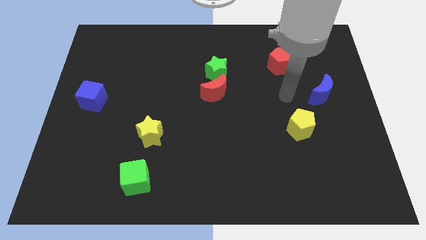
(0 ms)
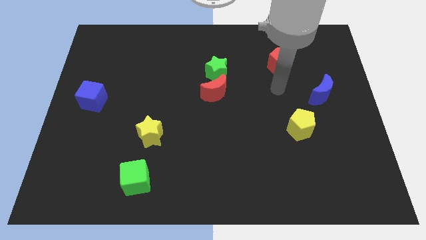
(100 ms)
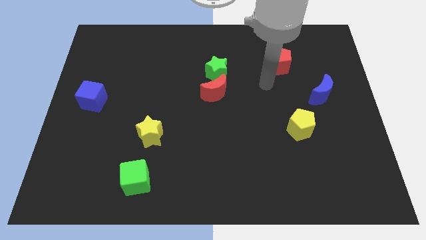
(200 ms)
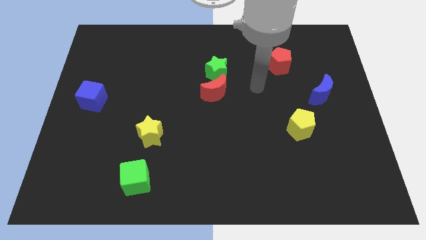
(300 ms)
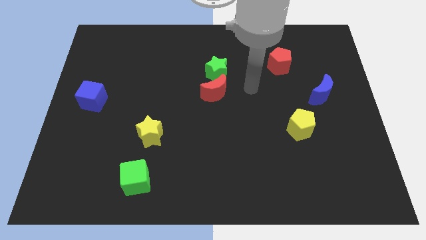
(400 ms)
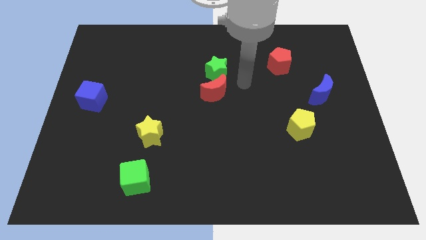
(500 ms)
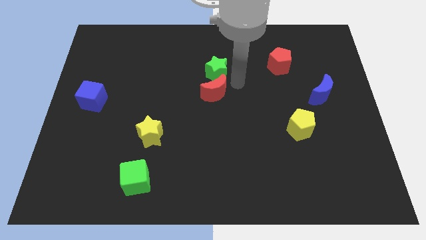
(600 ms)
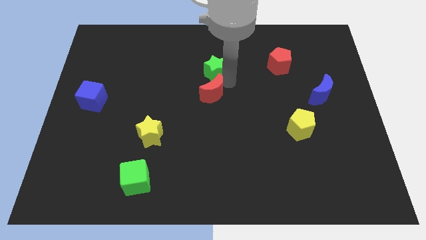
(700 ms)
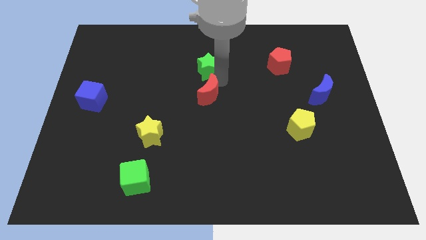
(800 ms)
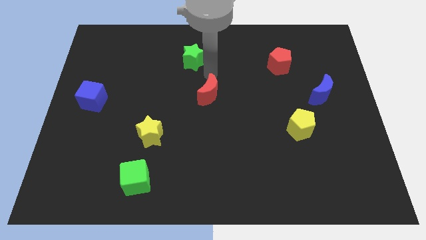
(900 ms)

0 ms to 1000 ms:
pull the red moon apart from the green star

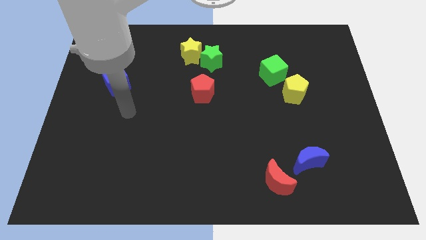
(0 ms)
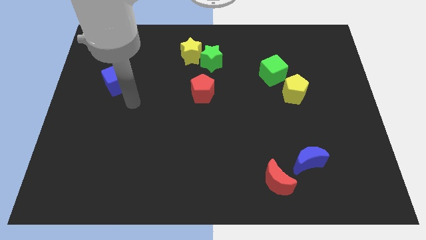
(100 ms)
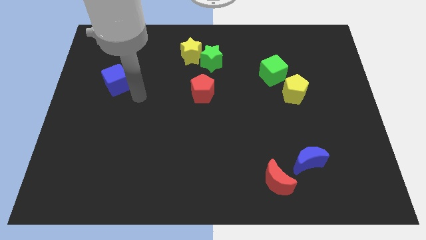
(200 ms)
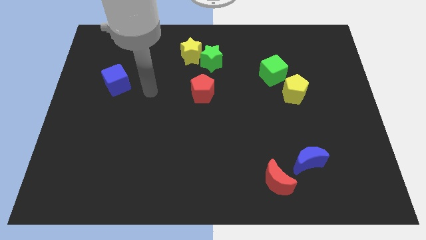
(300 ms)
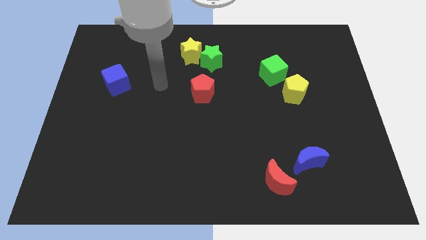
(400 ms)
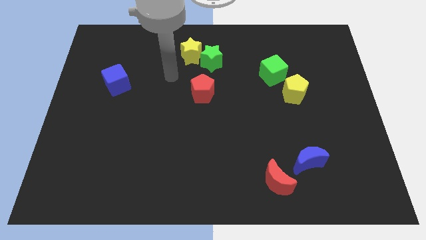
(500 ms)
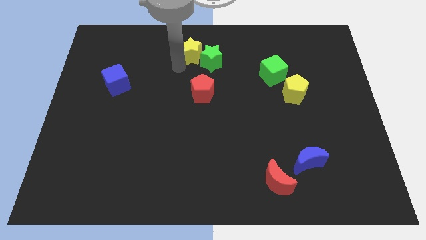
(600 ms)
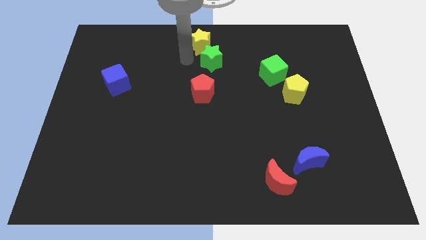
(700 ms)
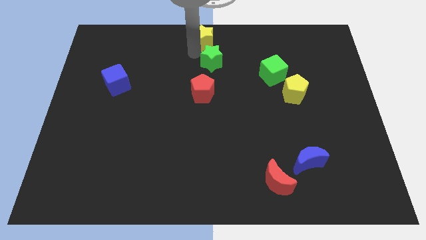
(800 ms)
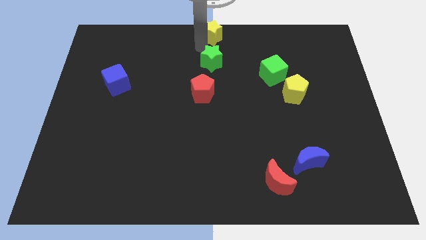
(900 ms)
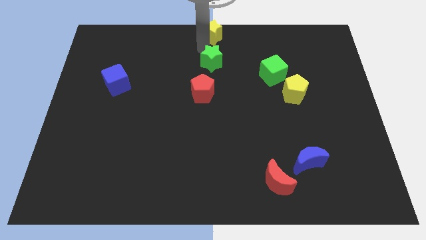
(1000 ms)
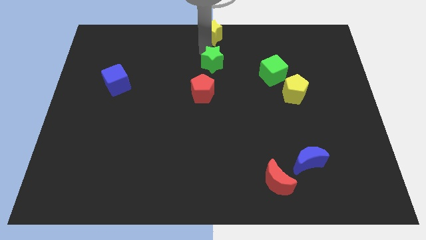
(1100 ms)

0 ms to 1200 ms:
separate the green star from the yellow star

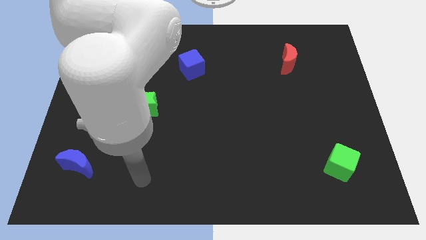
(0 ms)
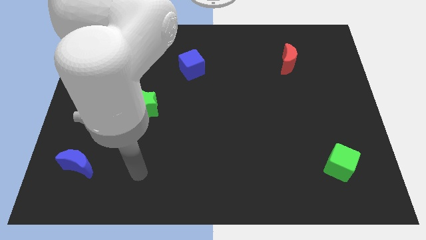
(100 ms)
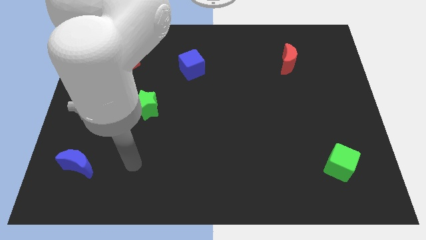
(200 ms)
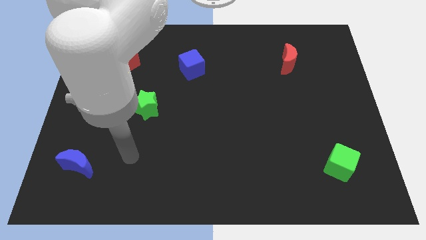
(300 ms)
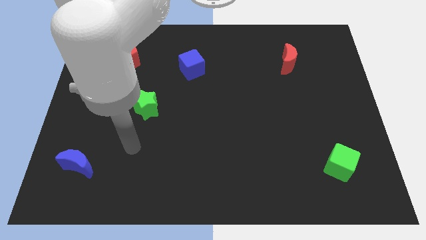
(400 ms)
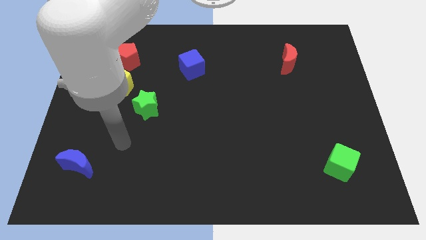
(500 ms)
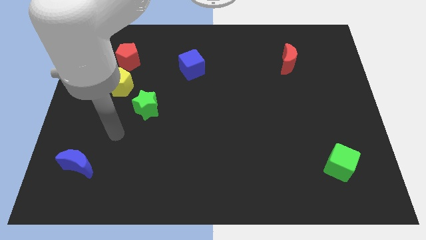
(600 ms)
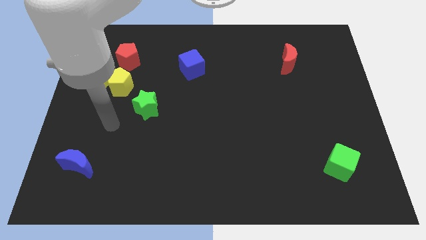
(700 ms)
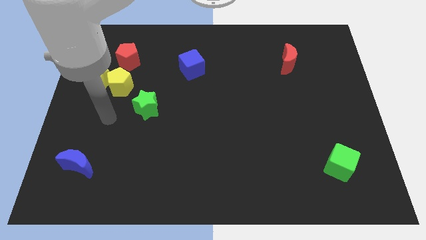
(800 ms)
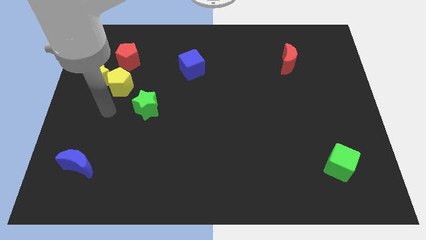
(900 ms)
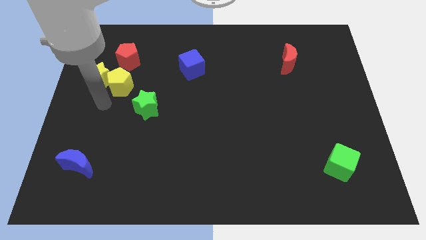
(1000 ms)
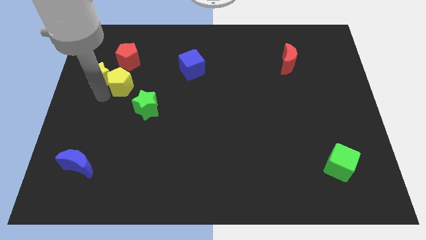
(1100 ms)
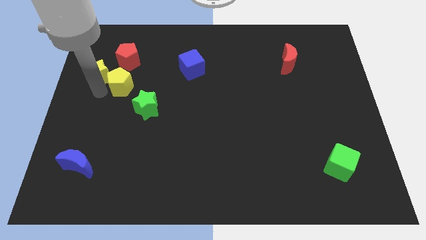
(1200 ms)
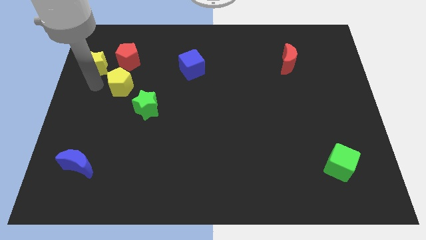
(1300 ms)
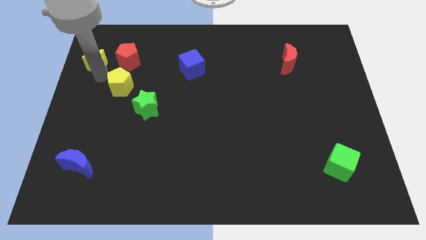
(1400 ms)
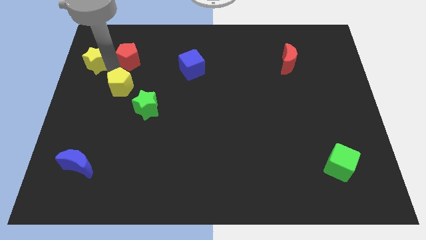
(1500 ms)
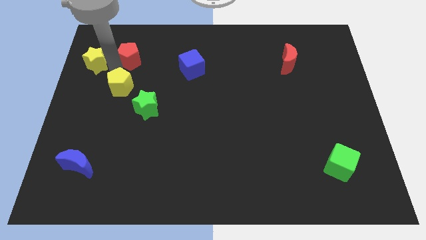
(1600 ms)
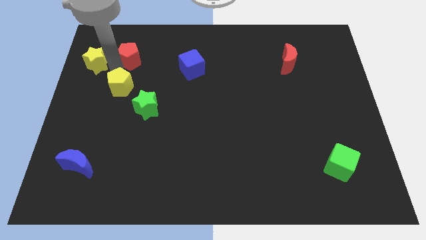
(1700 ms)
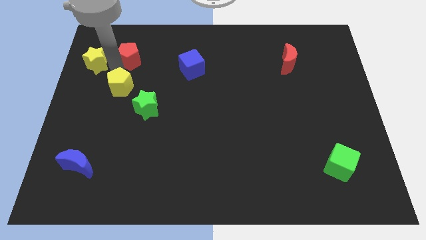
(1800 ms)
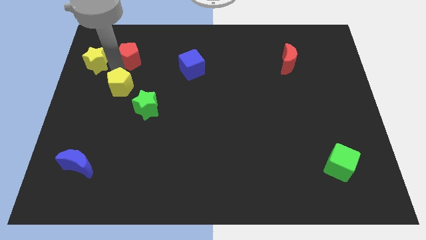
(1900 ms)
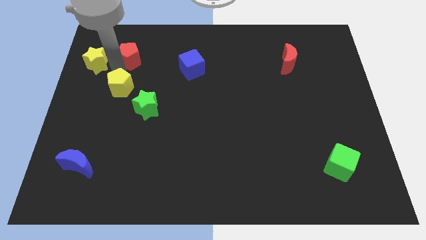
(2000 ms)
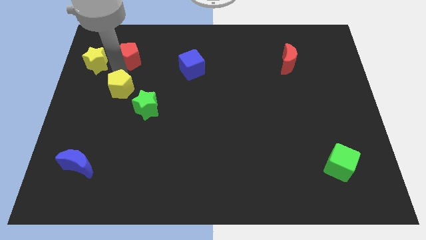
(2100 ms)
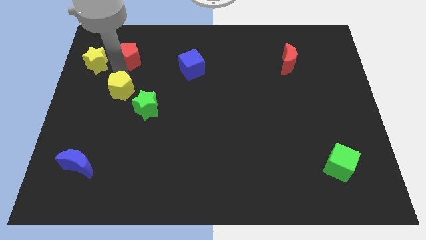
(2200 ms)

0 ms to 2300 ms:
move the yellow pentagon away from the yellow star and red pentagon

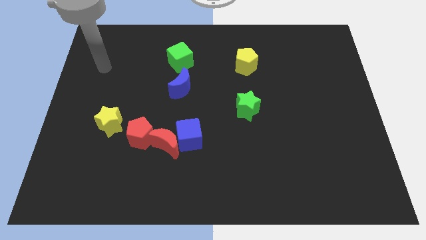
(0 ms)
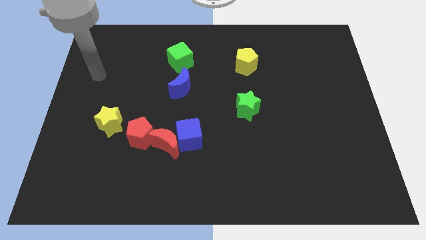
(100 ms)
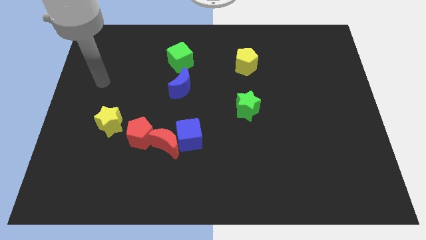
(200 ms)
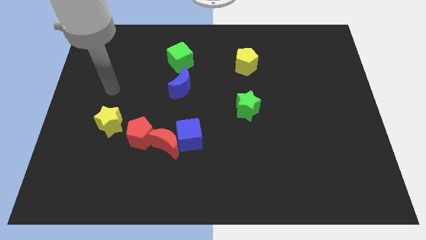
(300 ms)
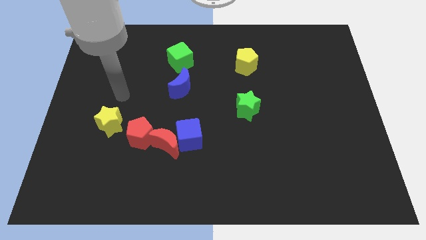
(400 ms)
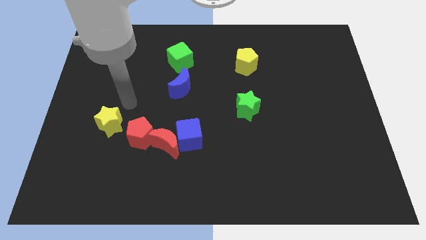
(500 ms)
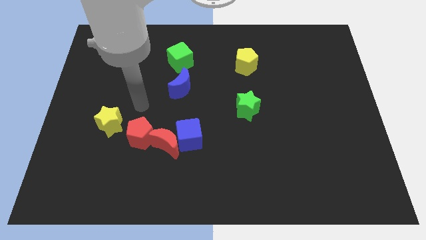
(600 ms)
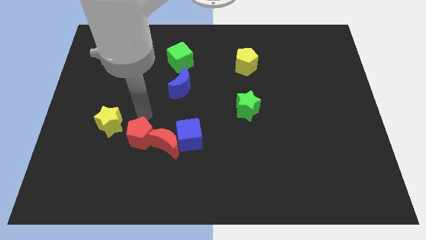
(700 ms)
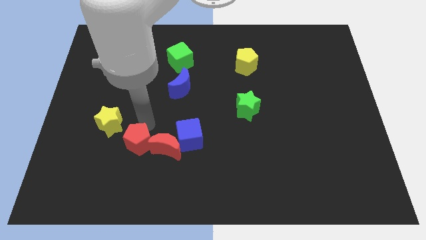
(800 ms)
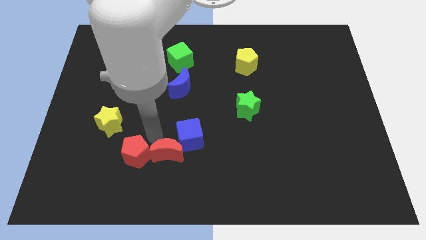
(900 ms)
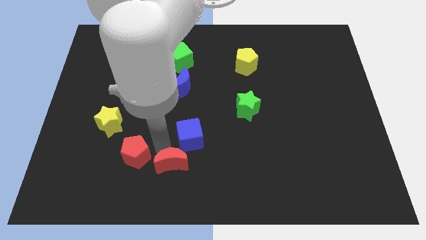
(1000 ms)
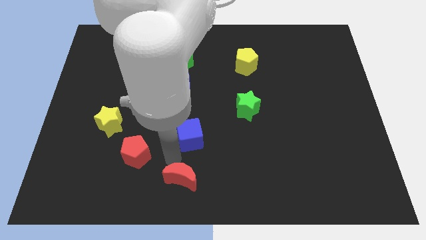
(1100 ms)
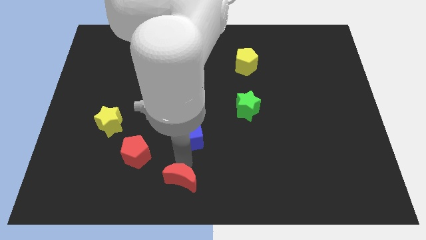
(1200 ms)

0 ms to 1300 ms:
pull the blue cube apart from the red moon

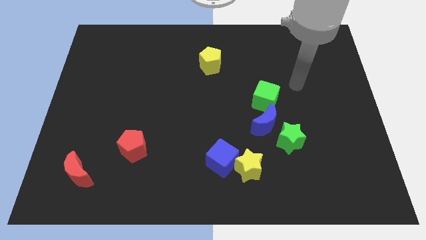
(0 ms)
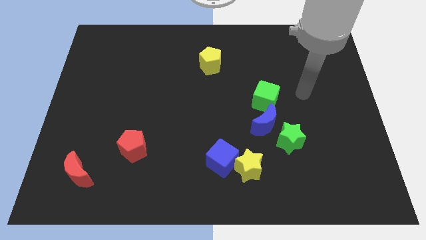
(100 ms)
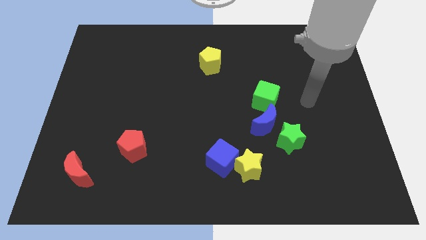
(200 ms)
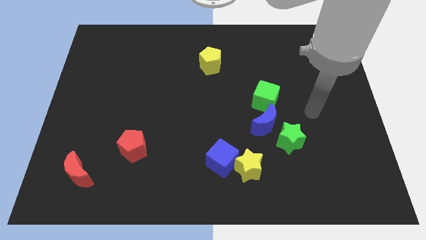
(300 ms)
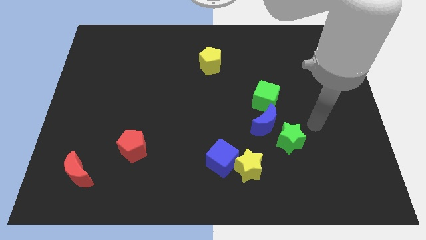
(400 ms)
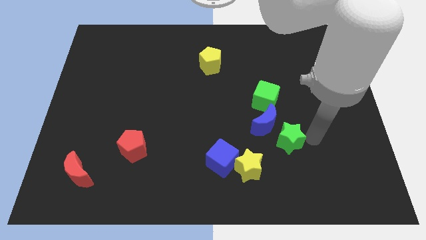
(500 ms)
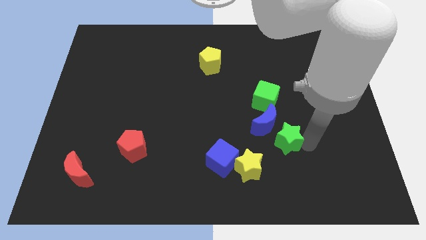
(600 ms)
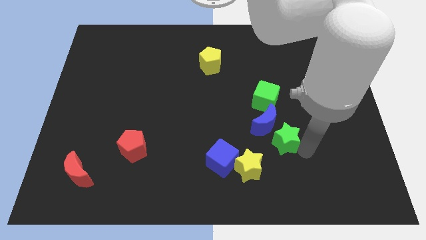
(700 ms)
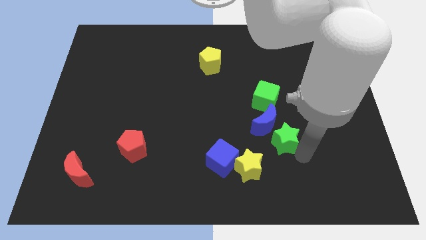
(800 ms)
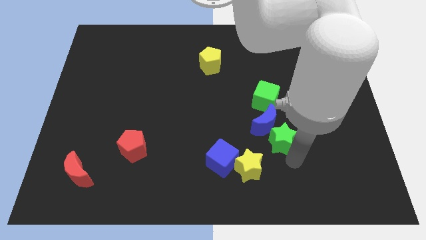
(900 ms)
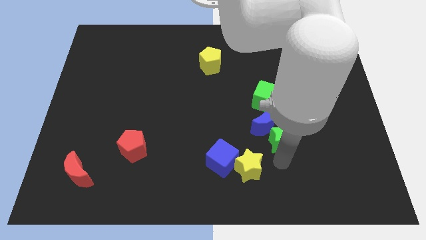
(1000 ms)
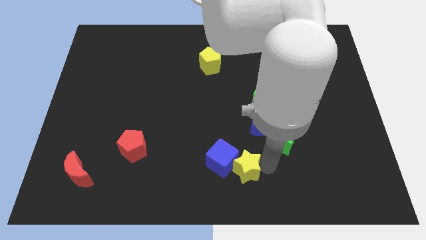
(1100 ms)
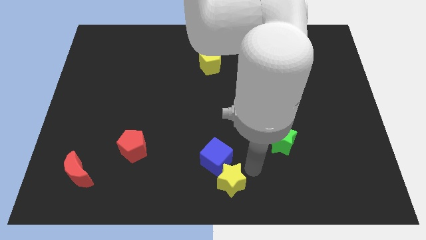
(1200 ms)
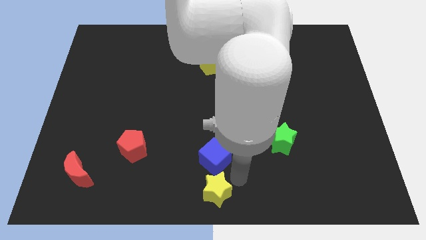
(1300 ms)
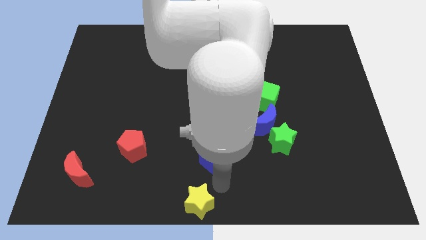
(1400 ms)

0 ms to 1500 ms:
separate the blue cube from the yellow star

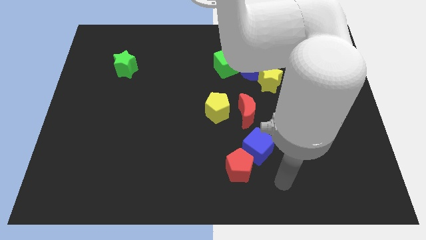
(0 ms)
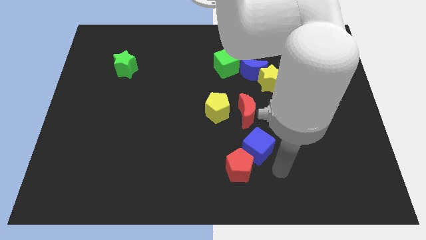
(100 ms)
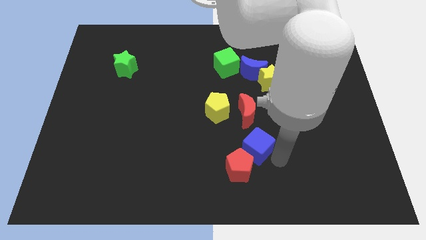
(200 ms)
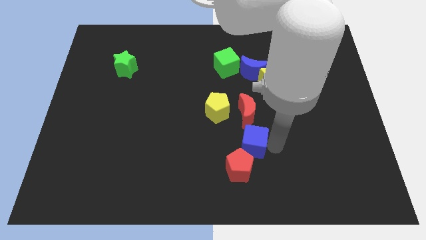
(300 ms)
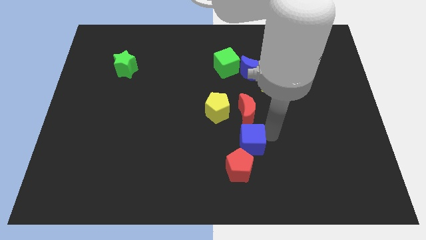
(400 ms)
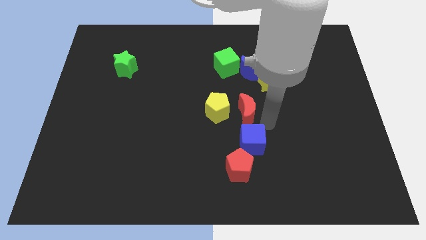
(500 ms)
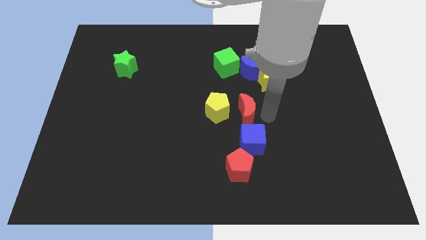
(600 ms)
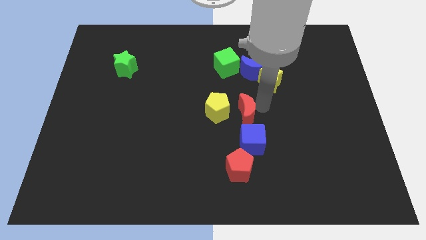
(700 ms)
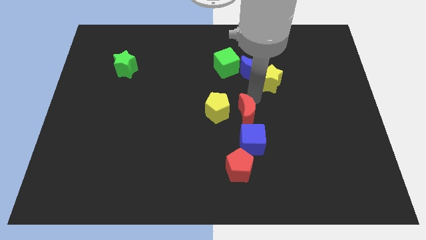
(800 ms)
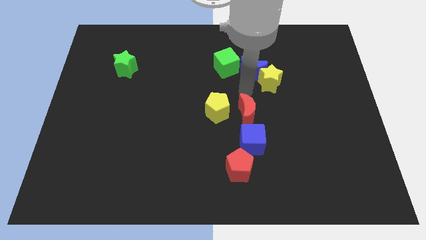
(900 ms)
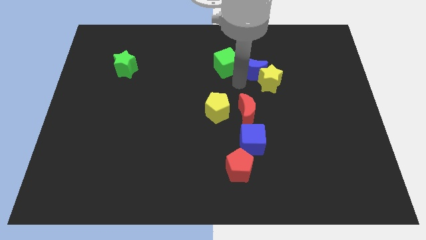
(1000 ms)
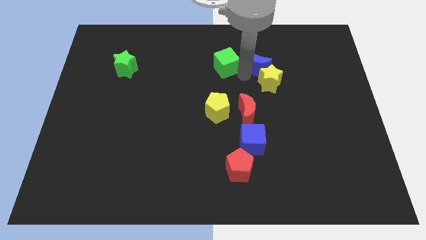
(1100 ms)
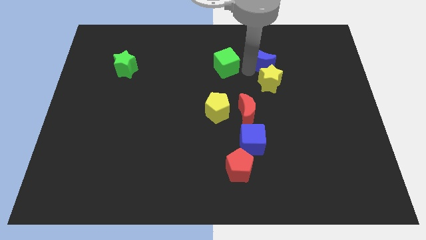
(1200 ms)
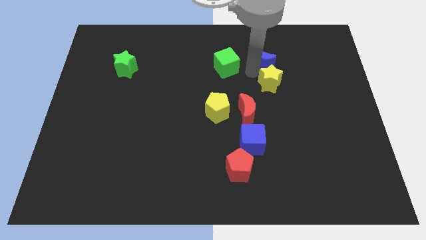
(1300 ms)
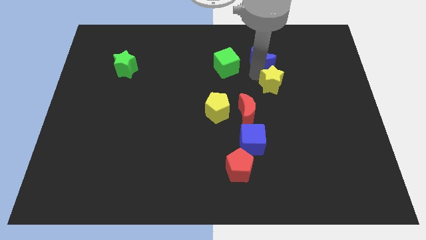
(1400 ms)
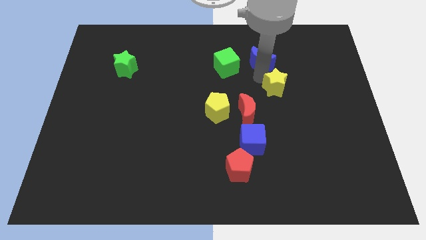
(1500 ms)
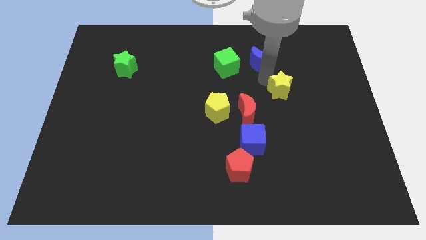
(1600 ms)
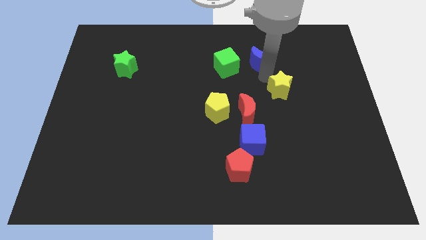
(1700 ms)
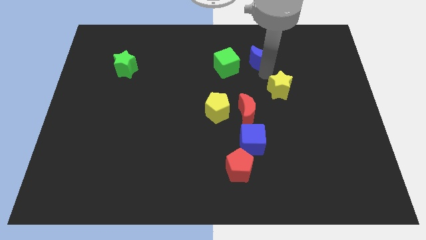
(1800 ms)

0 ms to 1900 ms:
pull the yellow star apart from the blue moon
